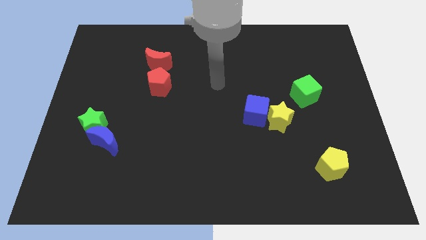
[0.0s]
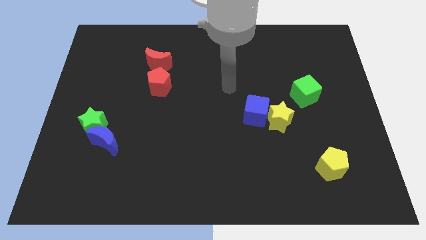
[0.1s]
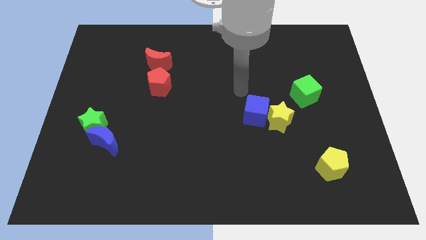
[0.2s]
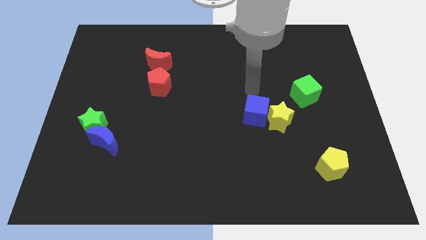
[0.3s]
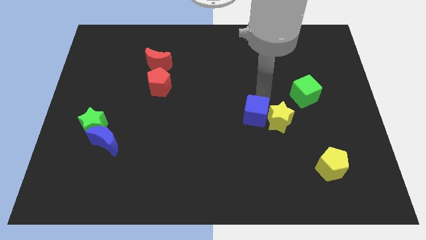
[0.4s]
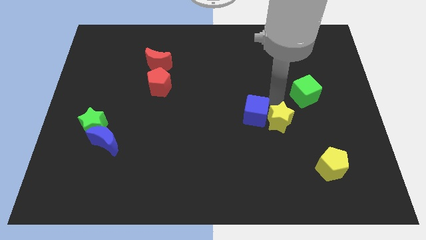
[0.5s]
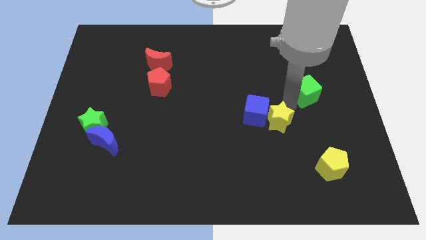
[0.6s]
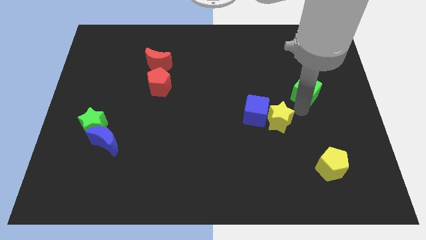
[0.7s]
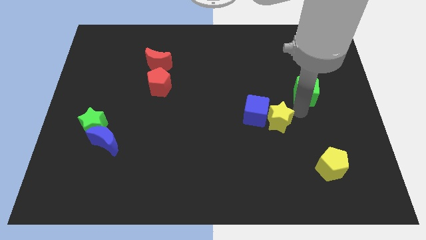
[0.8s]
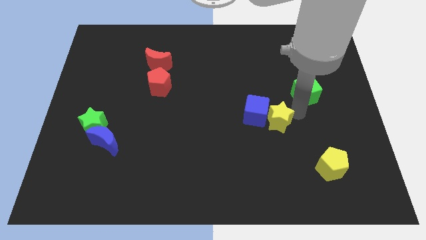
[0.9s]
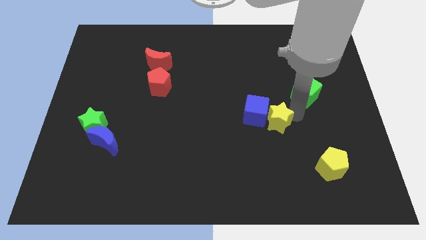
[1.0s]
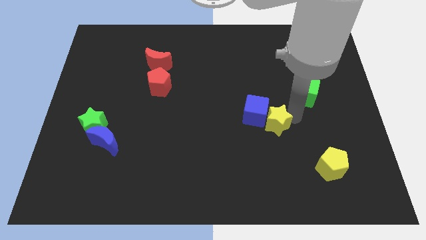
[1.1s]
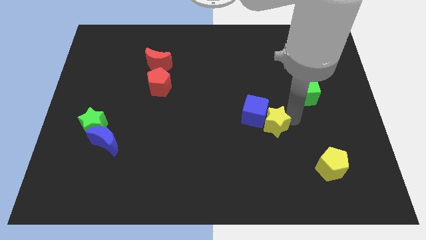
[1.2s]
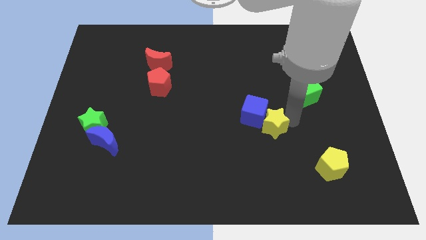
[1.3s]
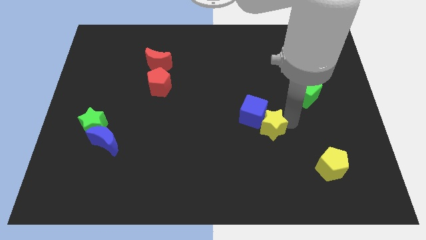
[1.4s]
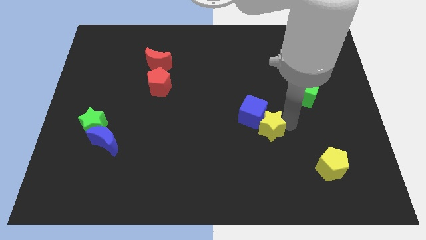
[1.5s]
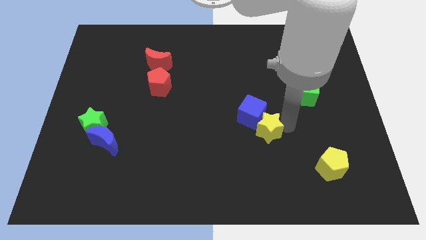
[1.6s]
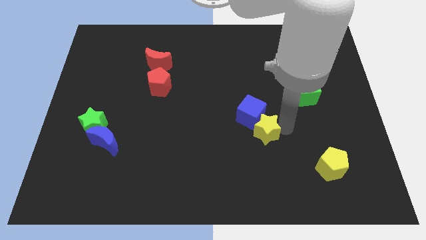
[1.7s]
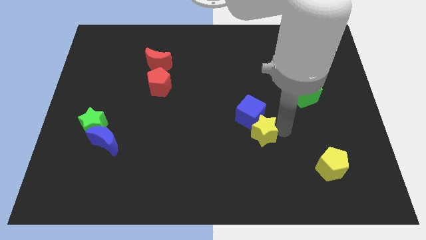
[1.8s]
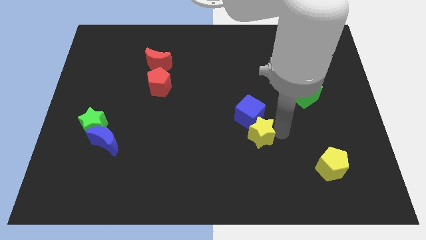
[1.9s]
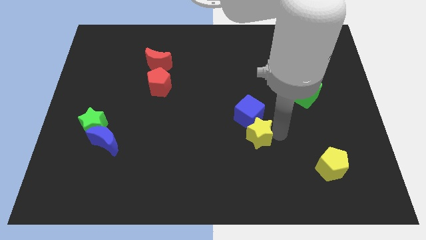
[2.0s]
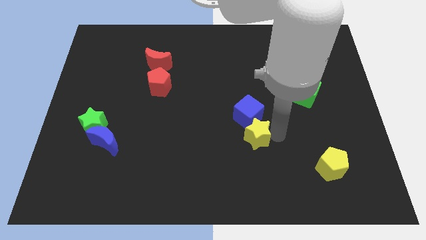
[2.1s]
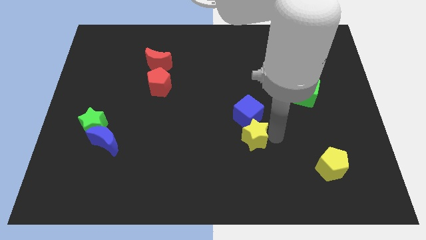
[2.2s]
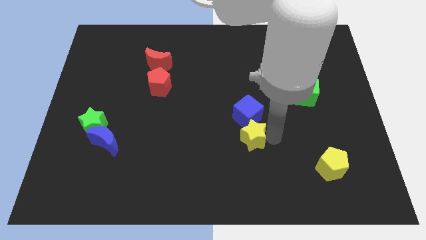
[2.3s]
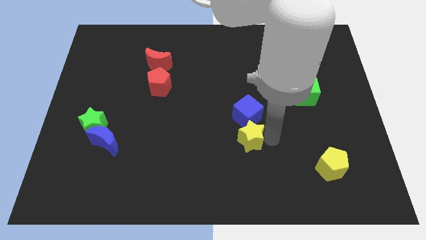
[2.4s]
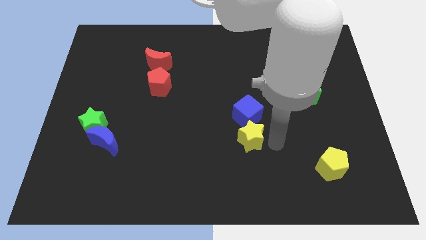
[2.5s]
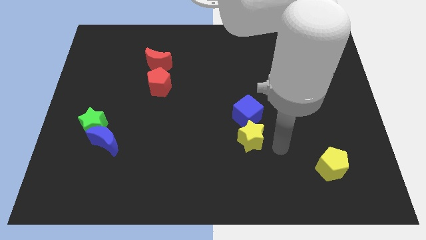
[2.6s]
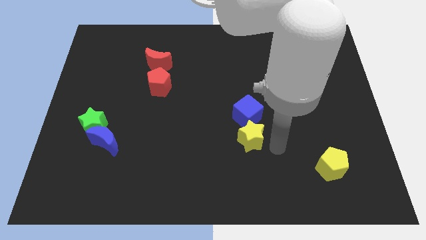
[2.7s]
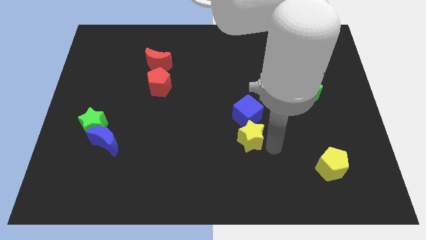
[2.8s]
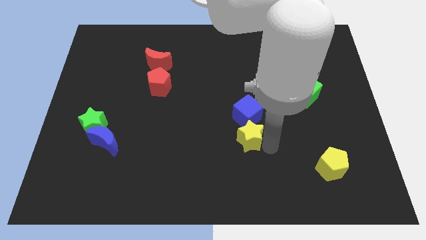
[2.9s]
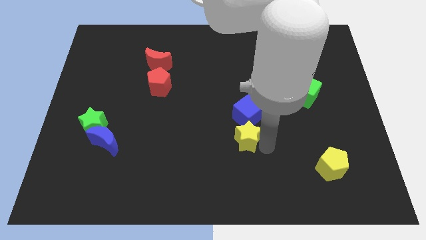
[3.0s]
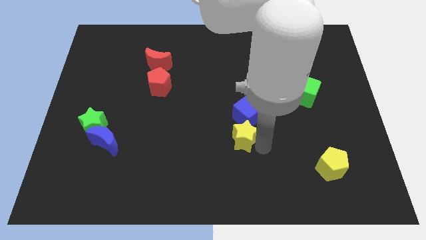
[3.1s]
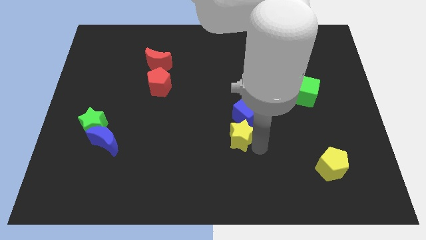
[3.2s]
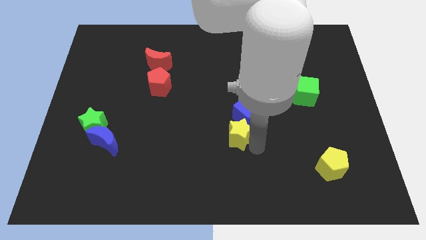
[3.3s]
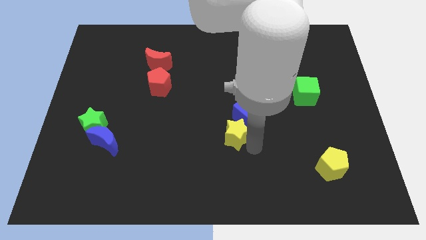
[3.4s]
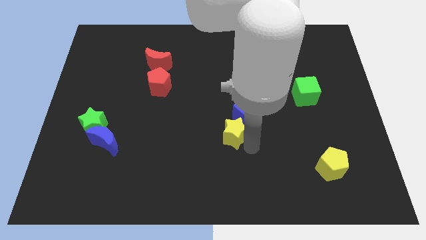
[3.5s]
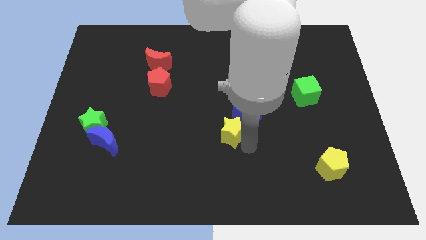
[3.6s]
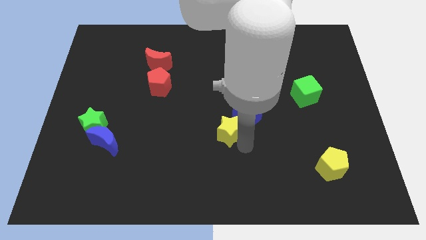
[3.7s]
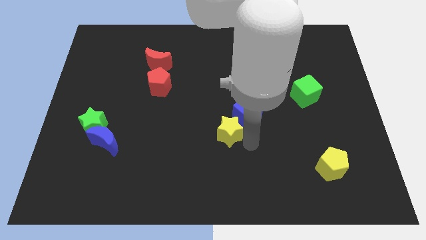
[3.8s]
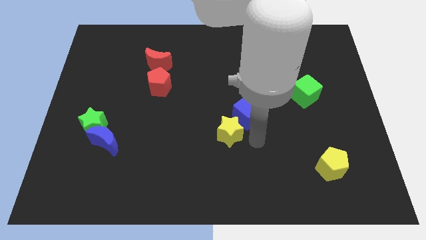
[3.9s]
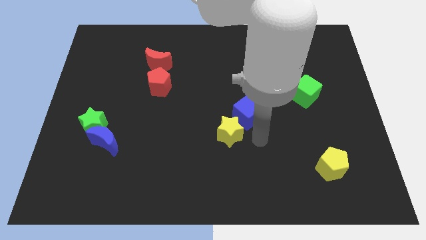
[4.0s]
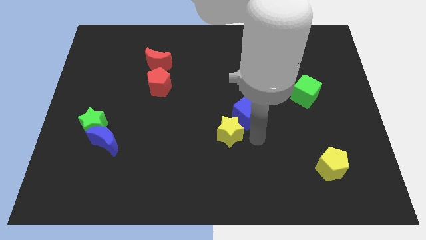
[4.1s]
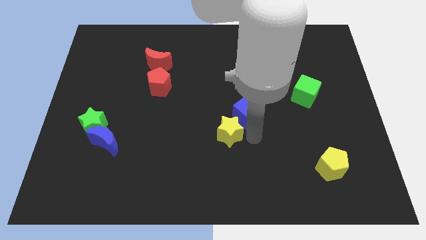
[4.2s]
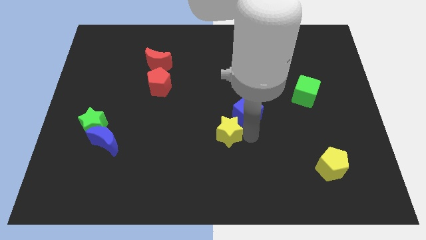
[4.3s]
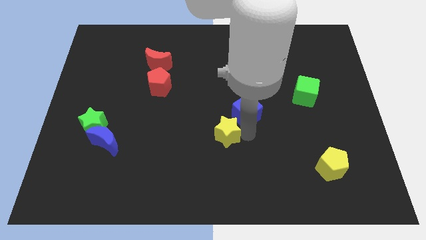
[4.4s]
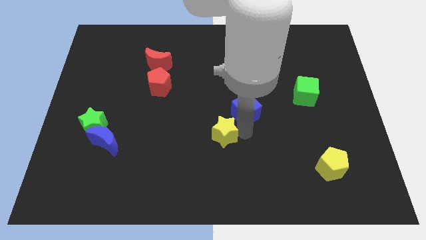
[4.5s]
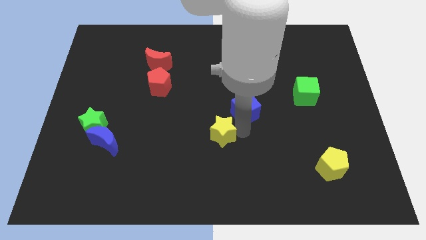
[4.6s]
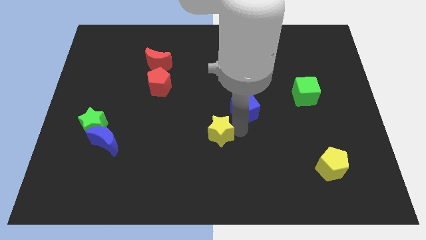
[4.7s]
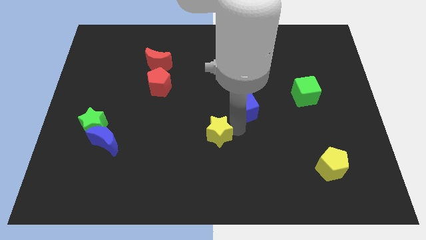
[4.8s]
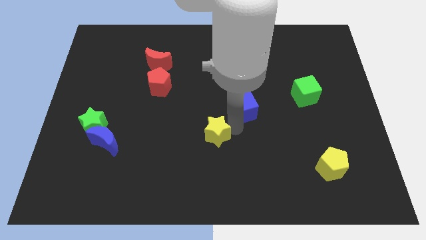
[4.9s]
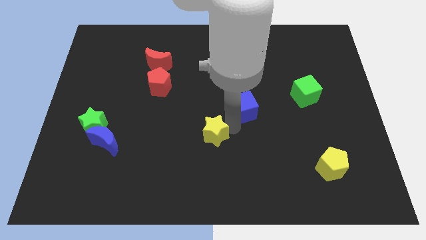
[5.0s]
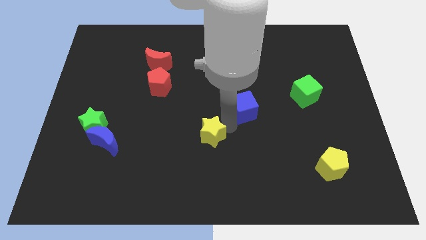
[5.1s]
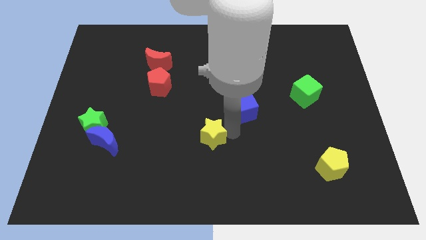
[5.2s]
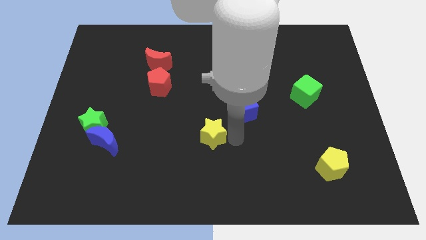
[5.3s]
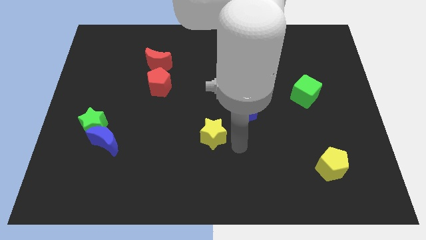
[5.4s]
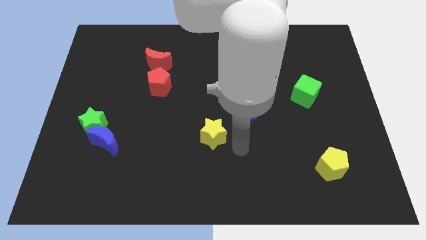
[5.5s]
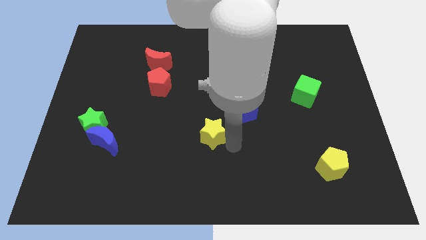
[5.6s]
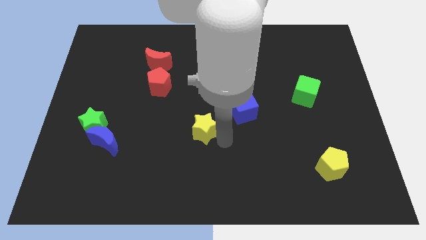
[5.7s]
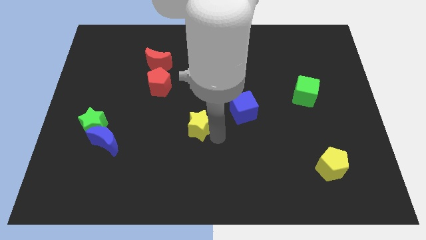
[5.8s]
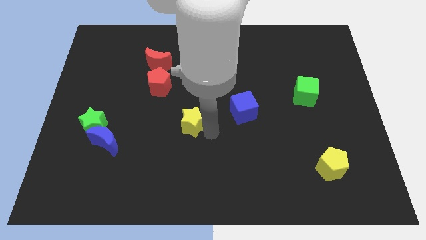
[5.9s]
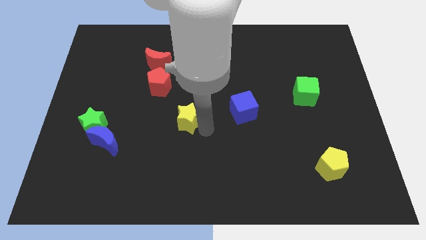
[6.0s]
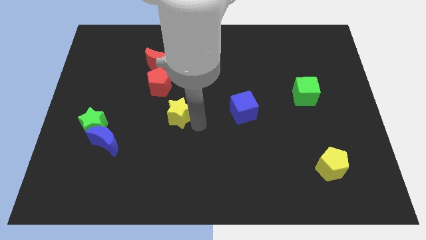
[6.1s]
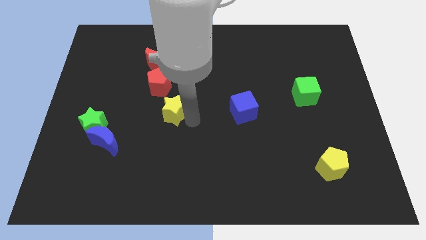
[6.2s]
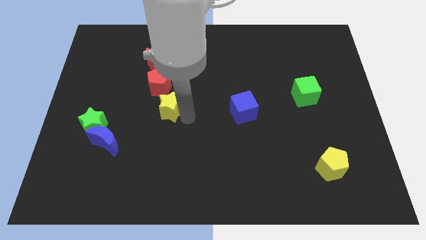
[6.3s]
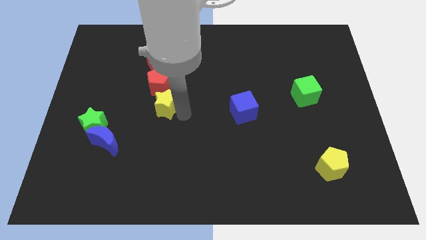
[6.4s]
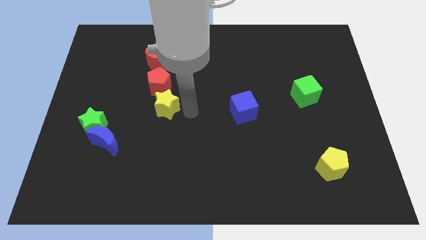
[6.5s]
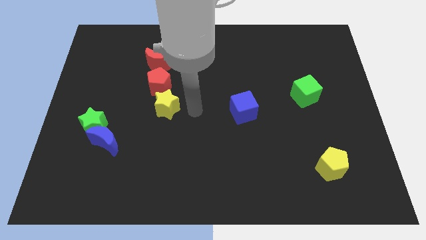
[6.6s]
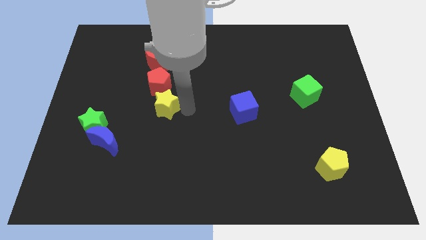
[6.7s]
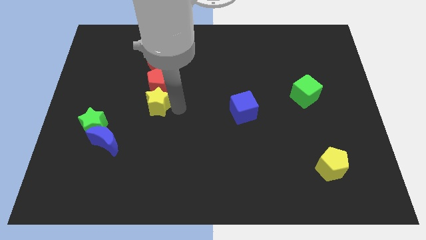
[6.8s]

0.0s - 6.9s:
put the yellow star to the bottom left of the red pentagon

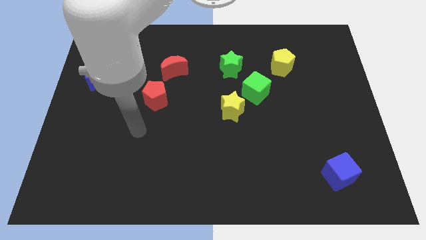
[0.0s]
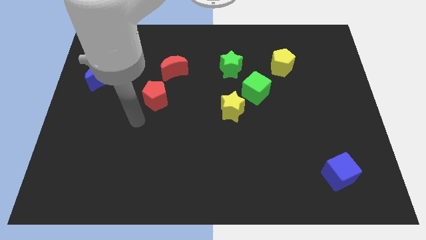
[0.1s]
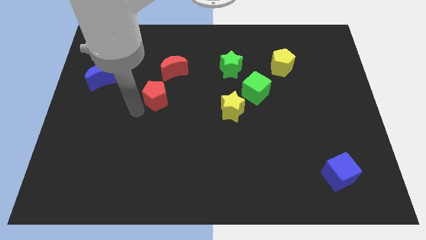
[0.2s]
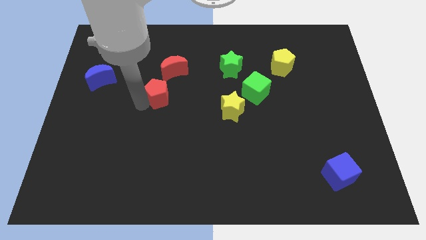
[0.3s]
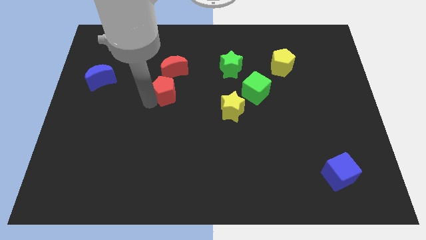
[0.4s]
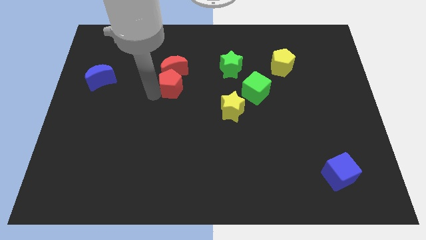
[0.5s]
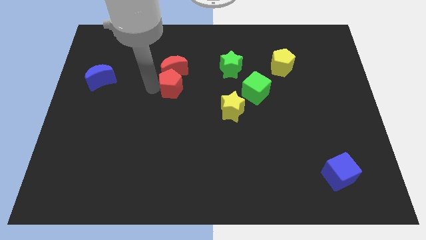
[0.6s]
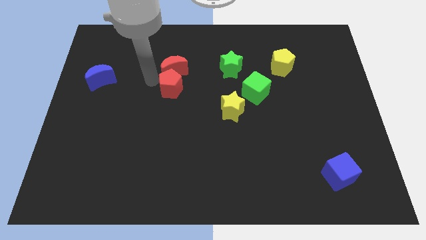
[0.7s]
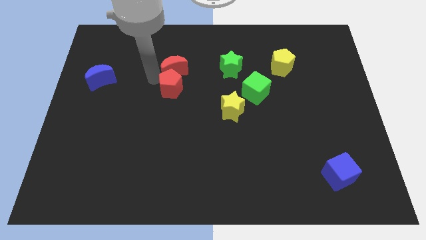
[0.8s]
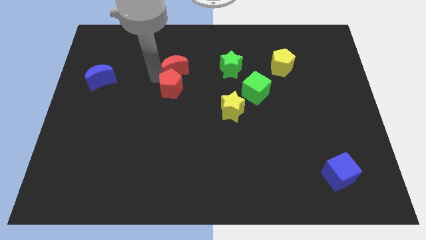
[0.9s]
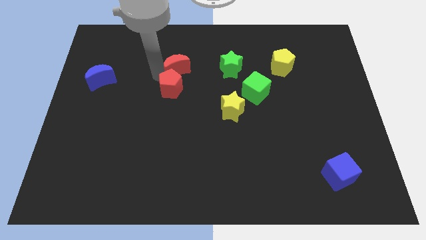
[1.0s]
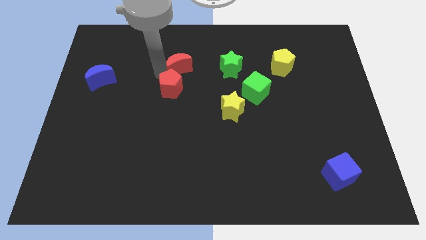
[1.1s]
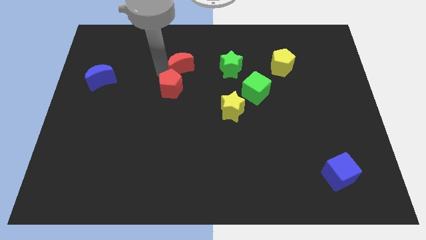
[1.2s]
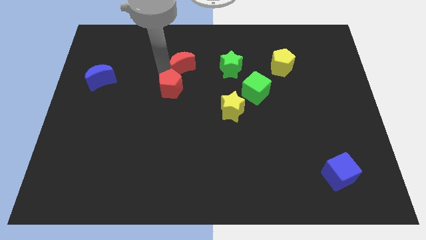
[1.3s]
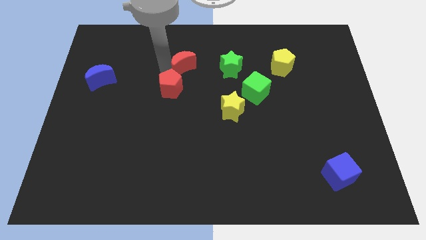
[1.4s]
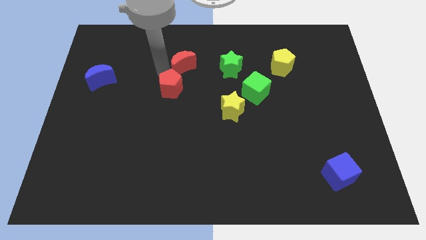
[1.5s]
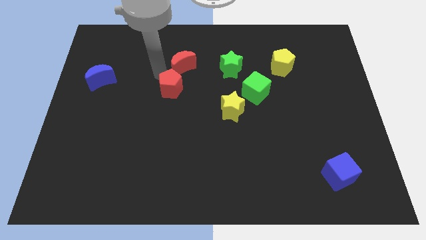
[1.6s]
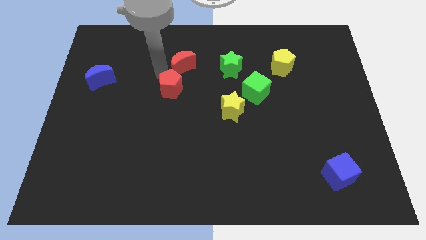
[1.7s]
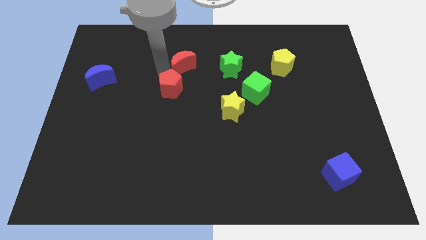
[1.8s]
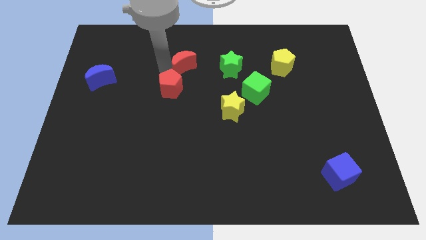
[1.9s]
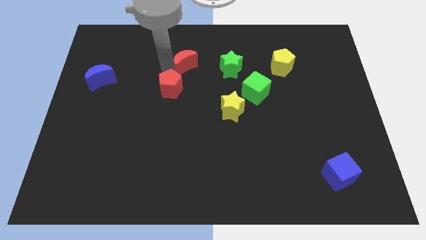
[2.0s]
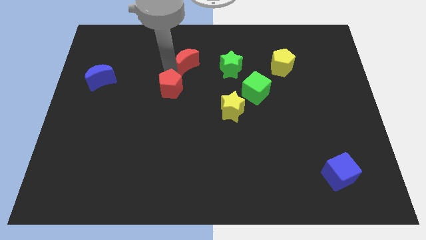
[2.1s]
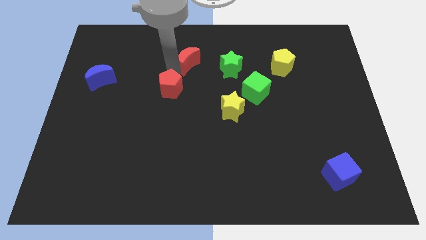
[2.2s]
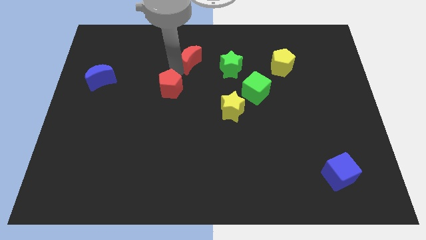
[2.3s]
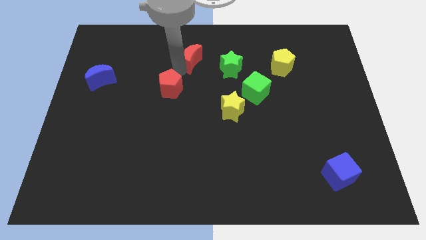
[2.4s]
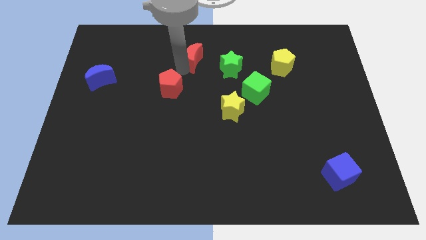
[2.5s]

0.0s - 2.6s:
put the red moon to the top left side of the green star
